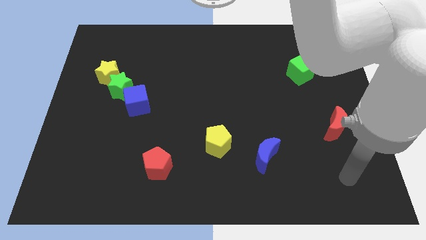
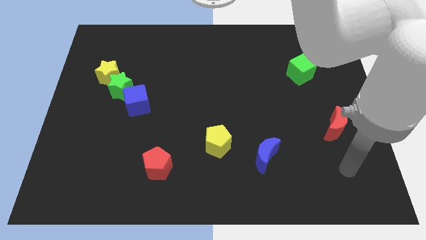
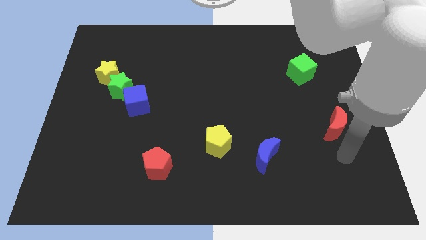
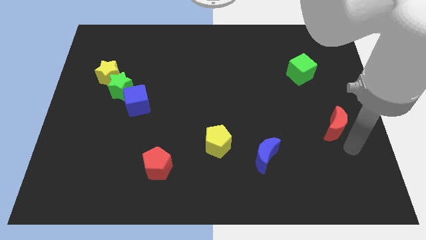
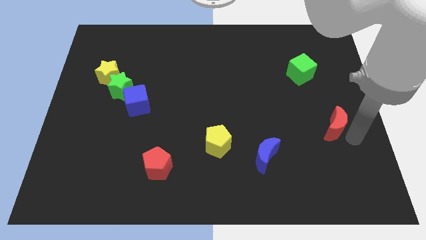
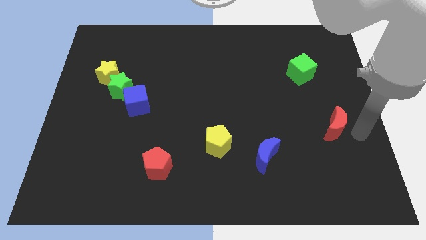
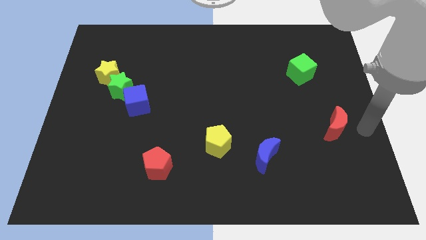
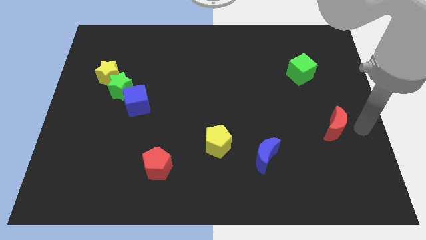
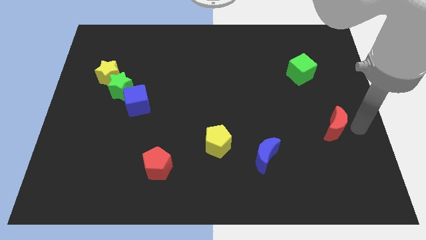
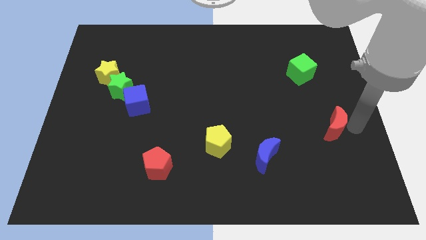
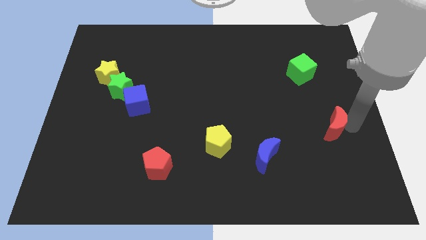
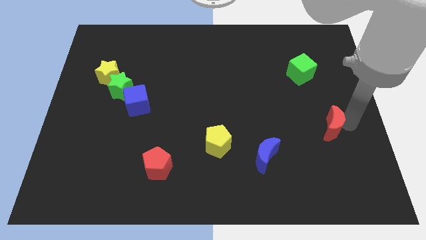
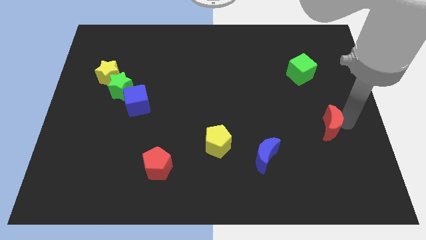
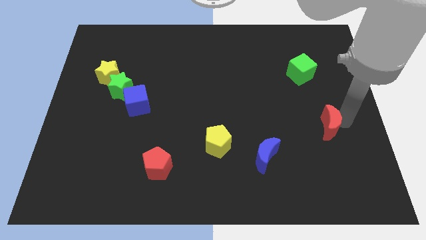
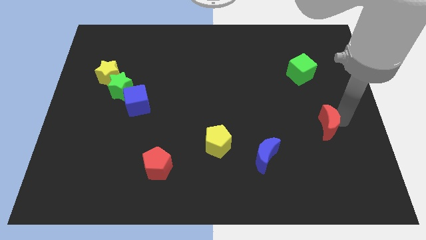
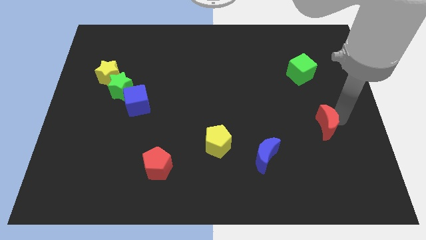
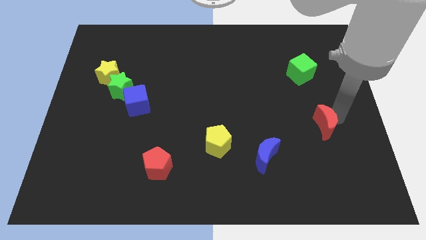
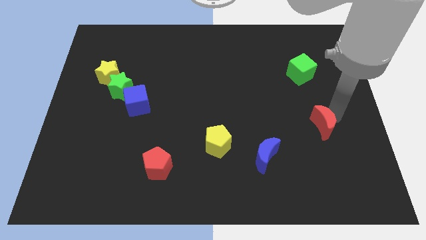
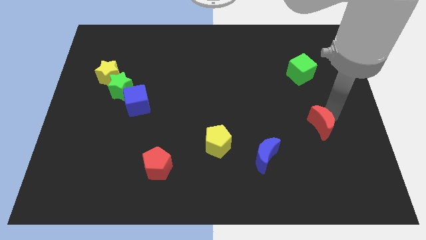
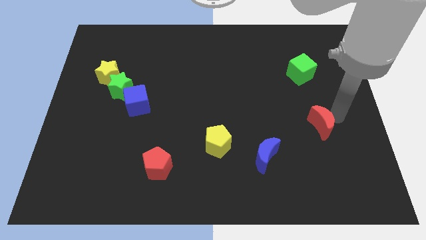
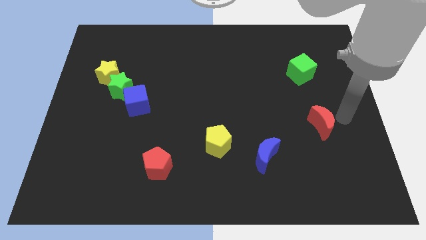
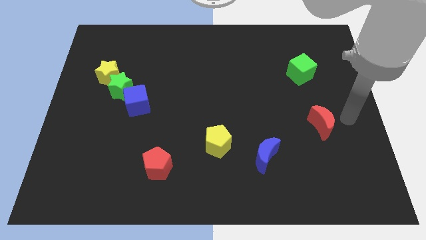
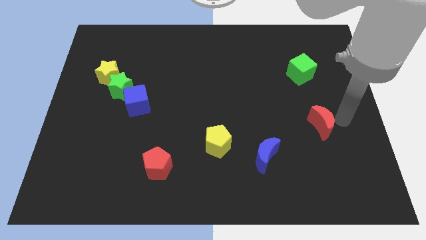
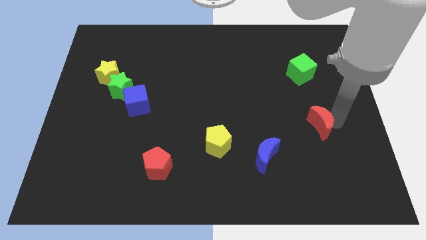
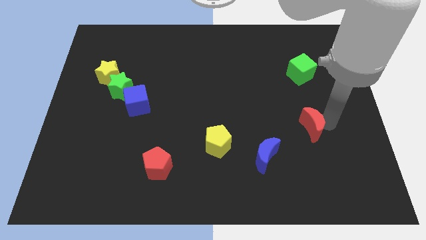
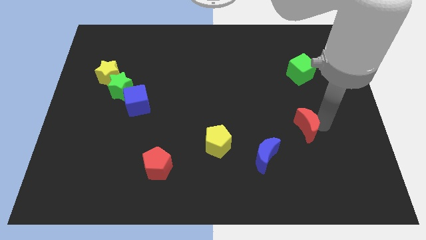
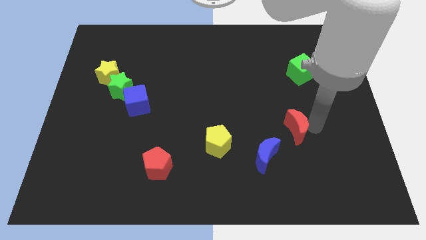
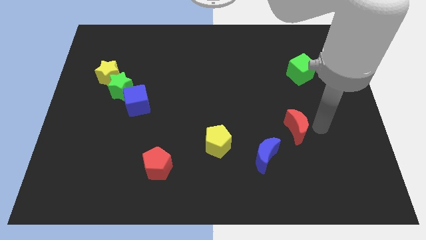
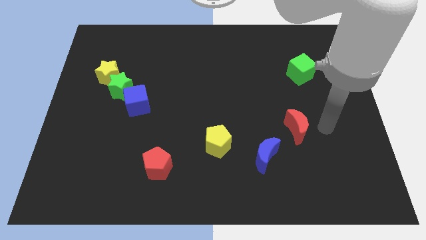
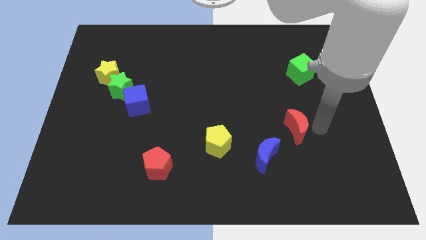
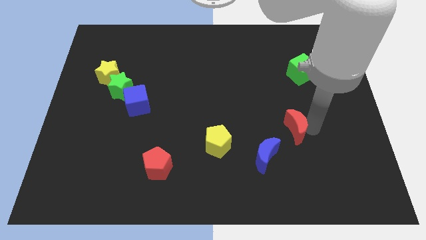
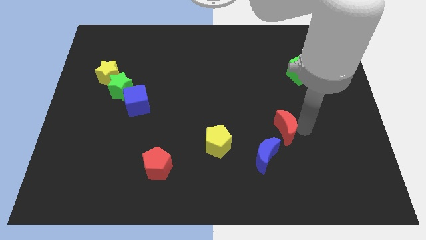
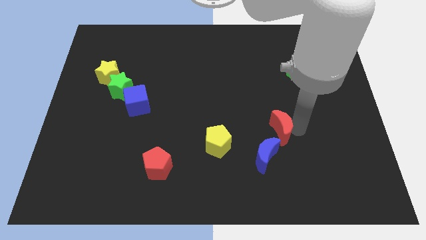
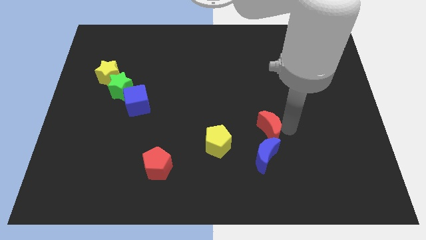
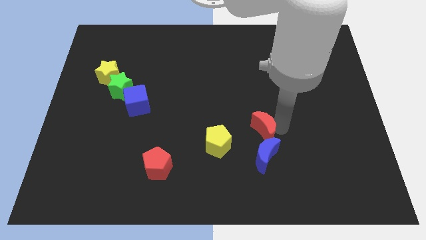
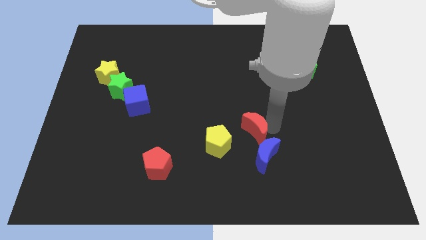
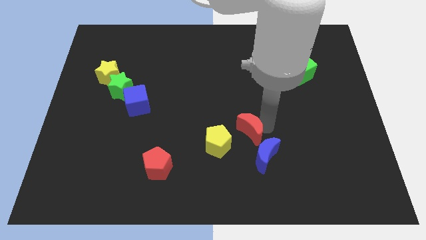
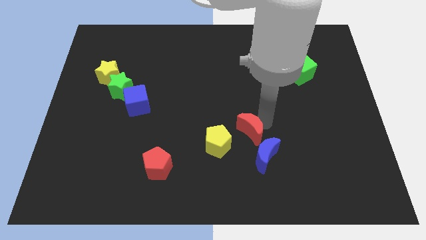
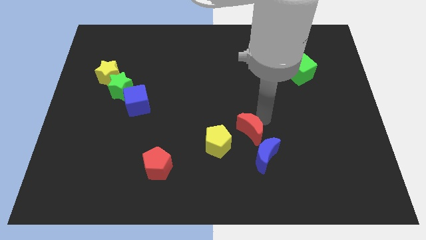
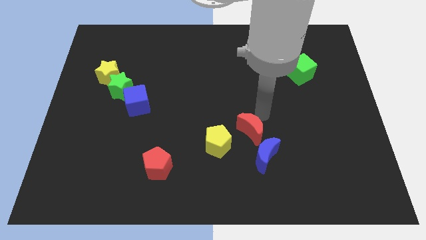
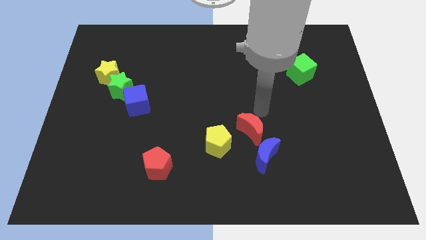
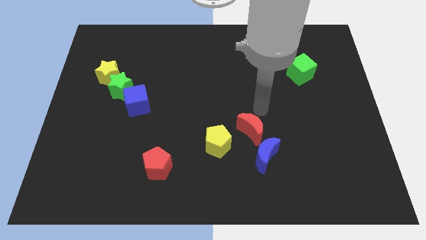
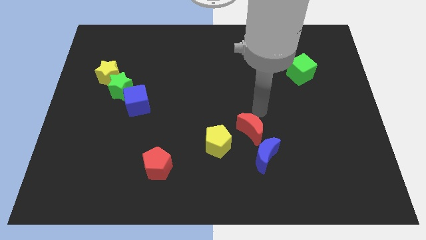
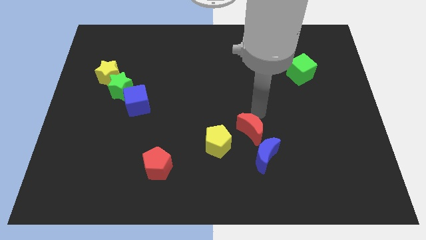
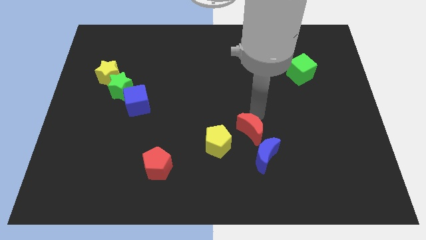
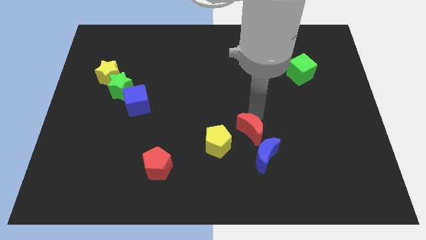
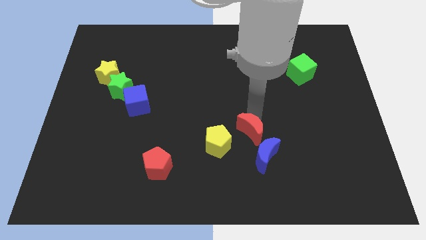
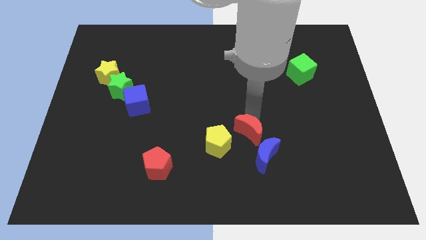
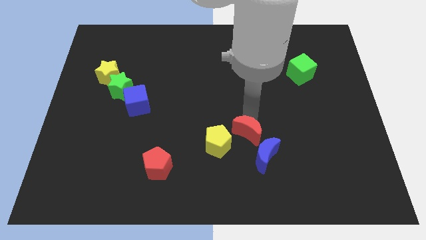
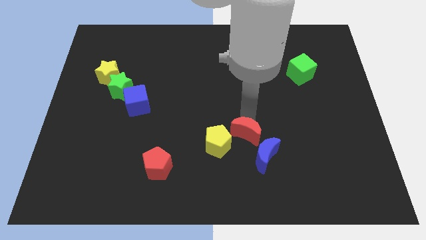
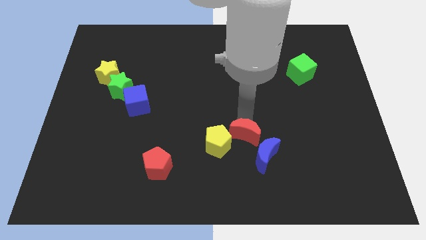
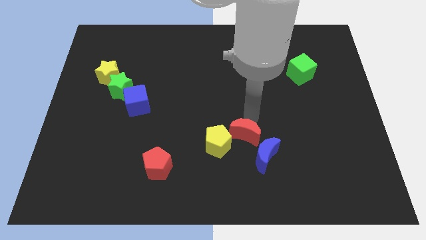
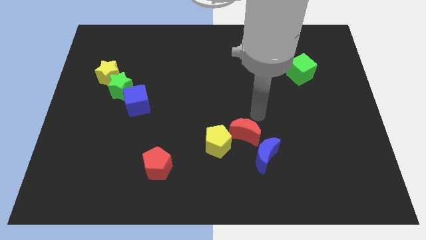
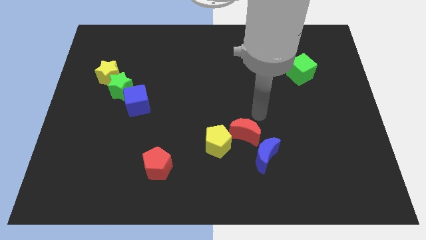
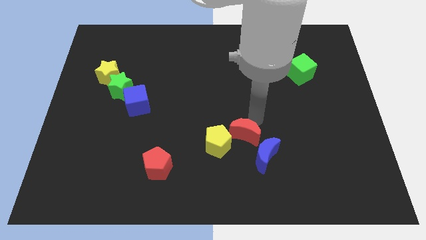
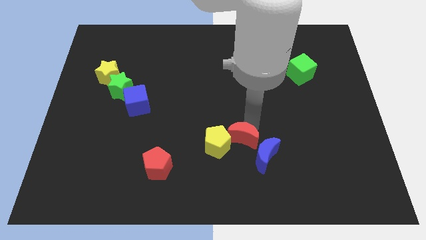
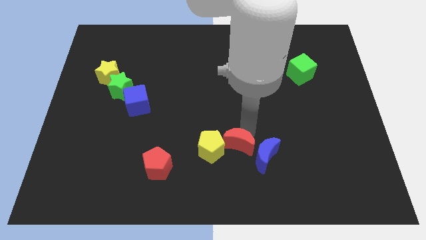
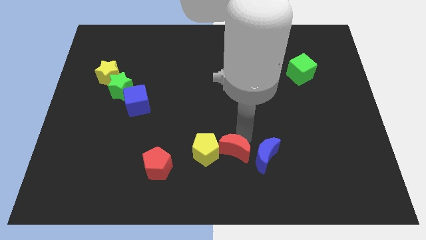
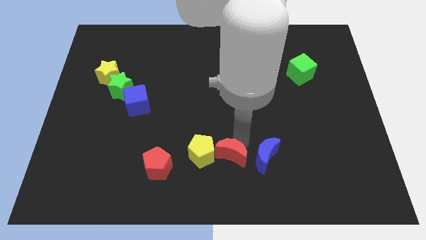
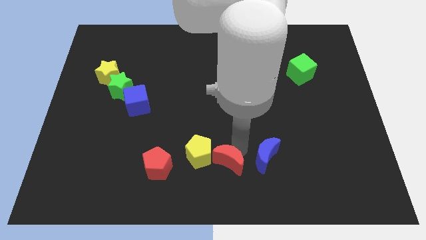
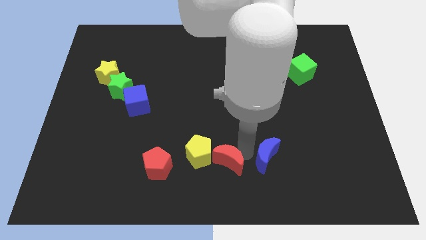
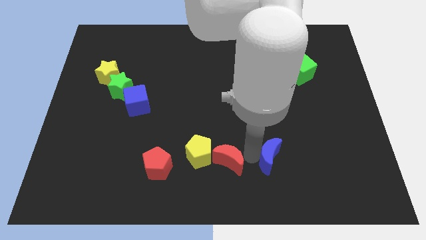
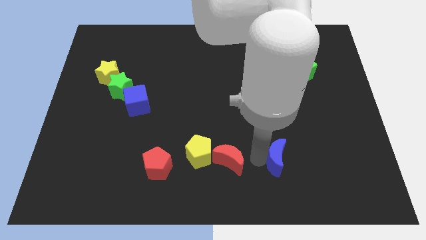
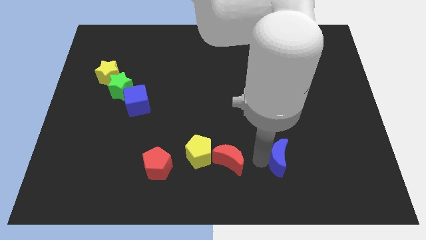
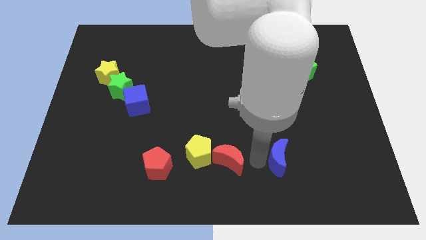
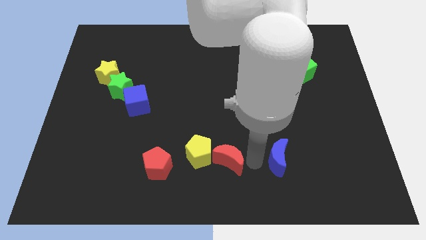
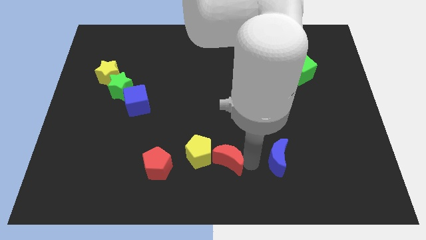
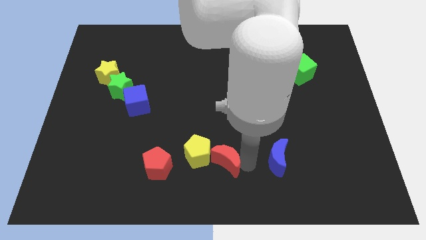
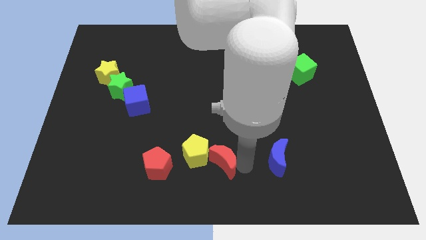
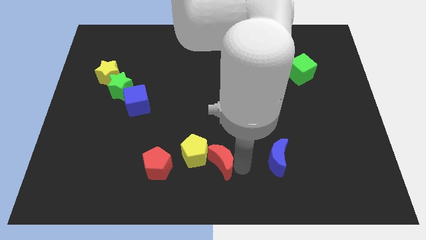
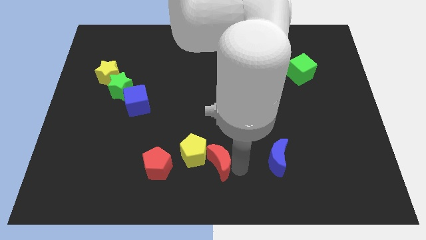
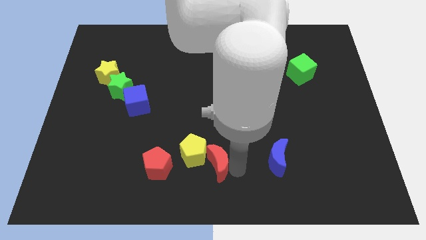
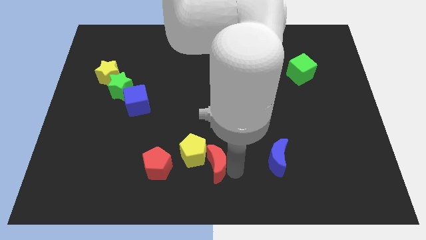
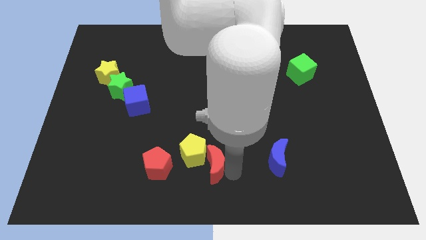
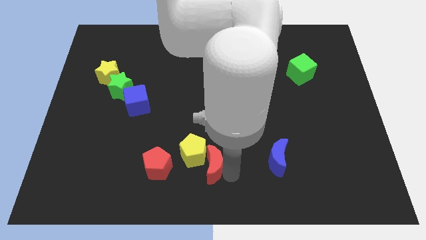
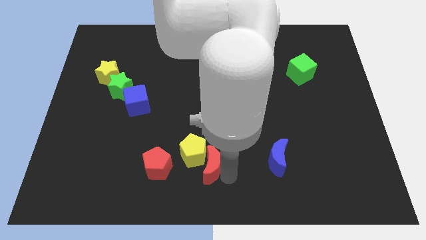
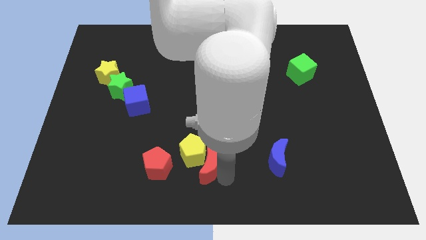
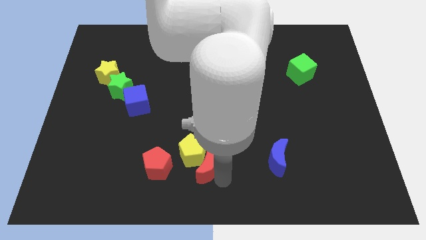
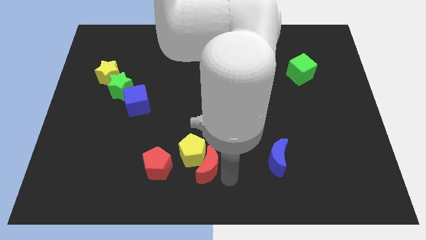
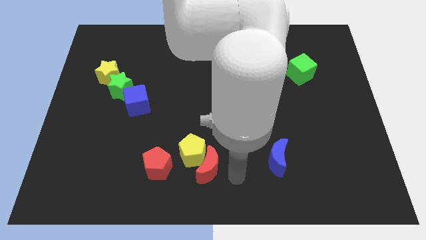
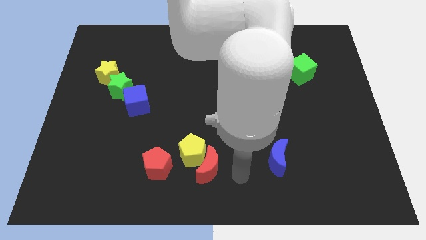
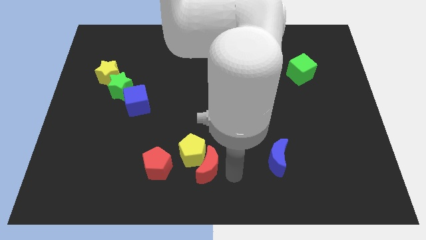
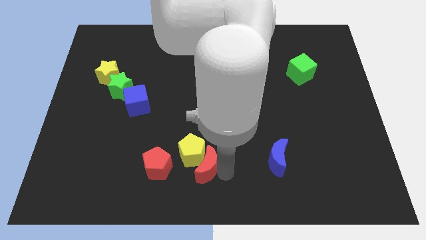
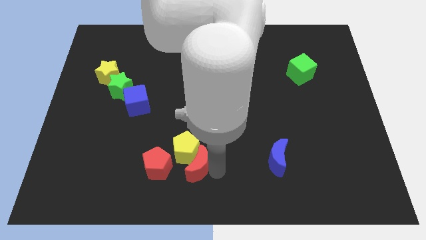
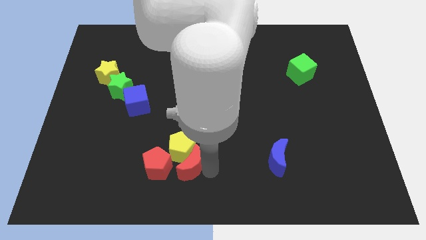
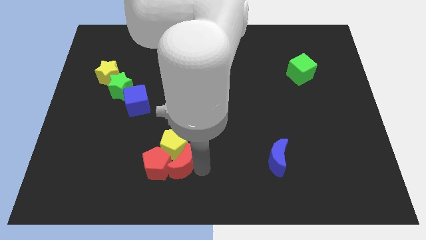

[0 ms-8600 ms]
slide the red moon close to the red pentagon
